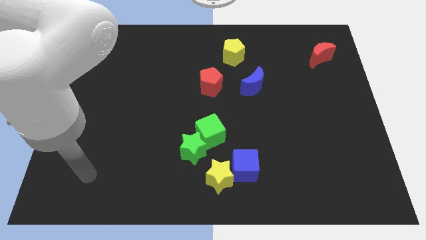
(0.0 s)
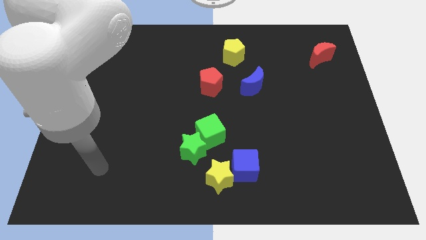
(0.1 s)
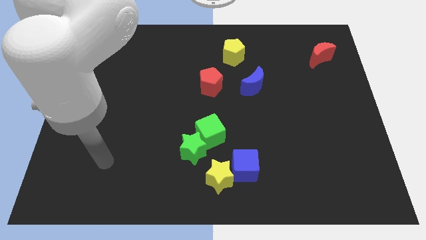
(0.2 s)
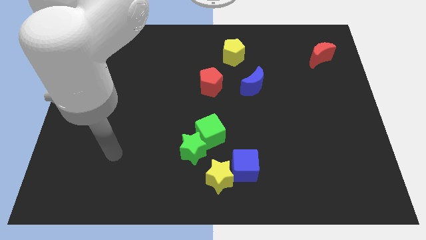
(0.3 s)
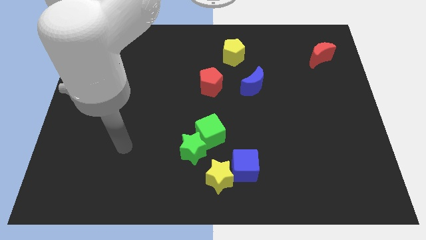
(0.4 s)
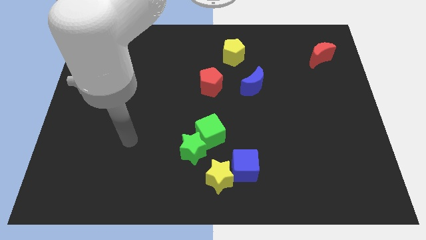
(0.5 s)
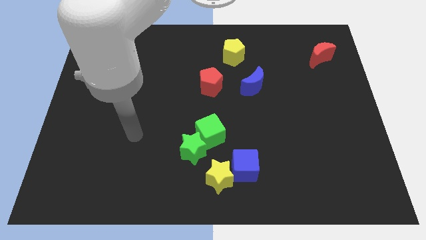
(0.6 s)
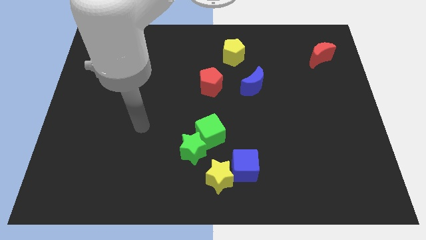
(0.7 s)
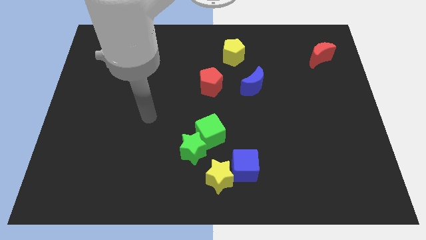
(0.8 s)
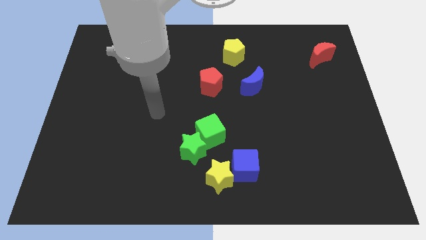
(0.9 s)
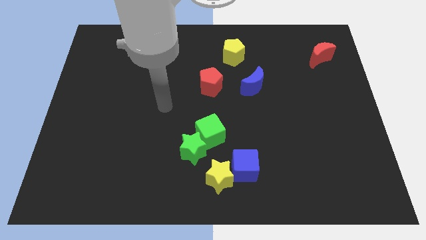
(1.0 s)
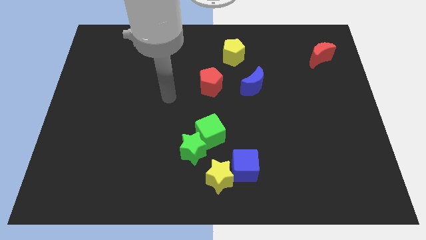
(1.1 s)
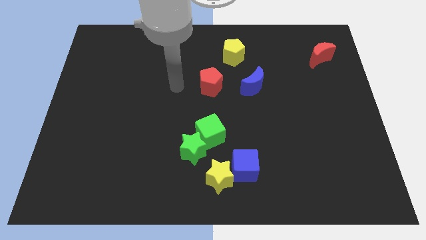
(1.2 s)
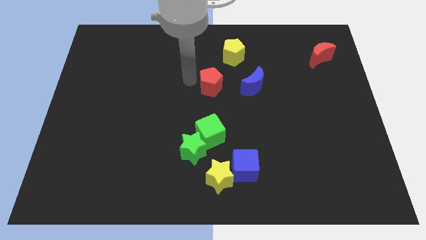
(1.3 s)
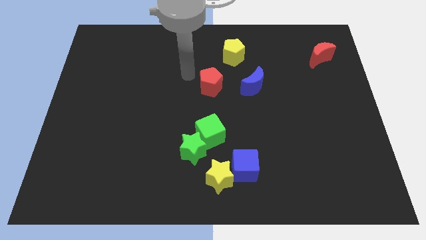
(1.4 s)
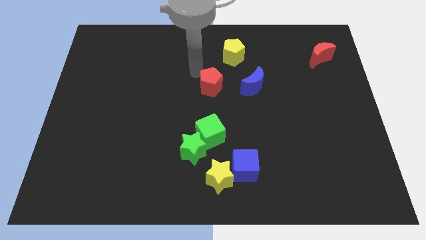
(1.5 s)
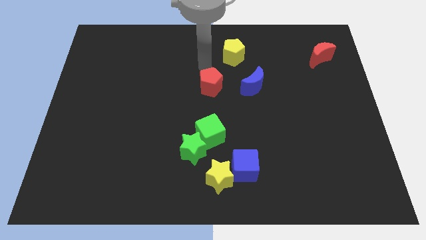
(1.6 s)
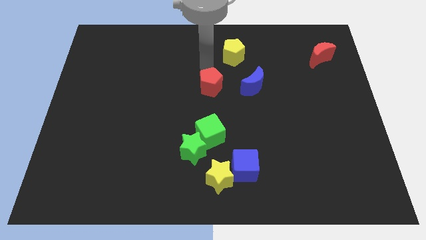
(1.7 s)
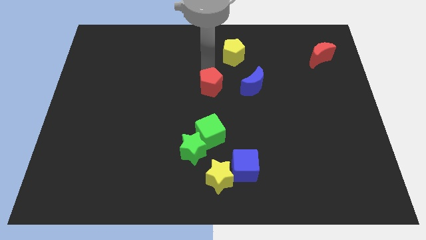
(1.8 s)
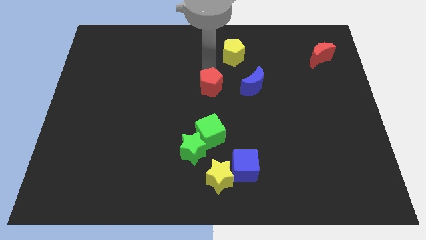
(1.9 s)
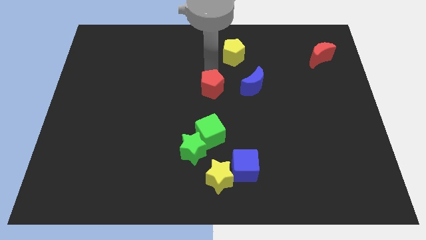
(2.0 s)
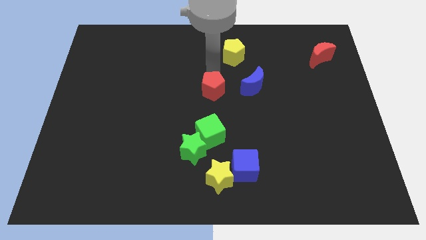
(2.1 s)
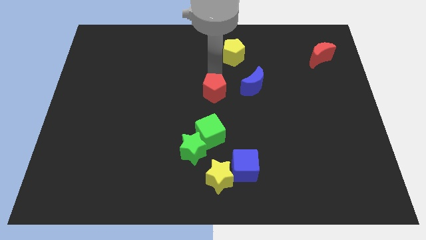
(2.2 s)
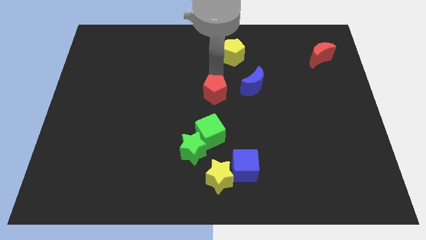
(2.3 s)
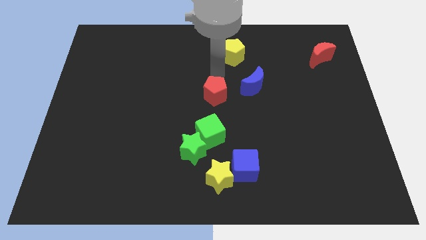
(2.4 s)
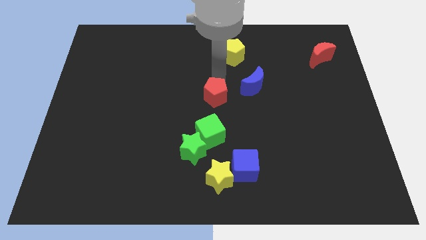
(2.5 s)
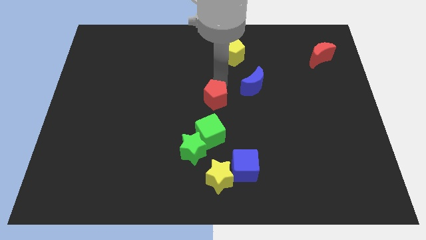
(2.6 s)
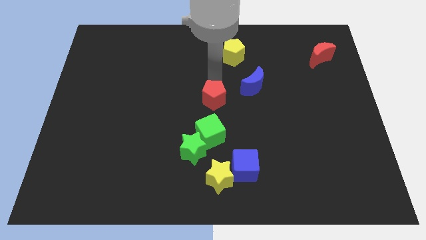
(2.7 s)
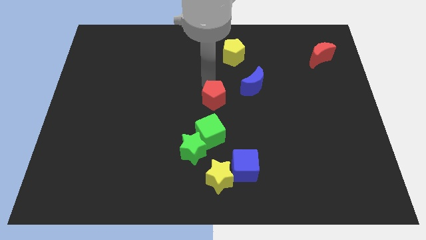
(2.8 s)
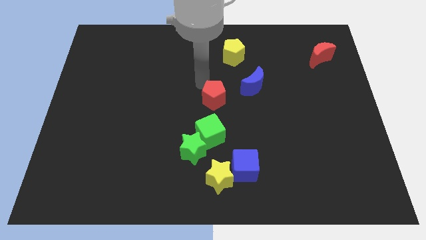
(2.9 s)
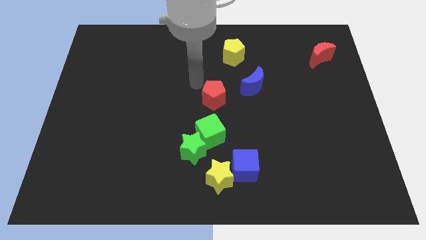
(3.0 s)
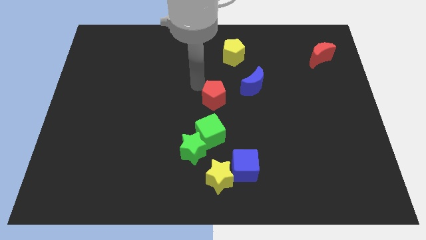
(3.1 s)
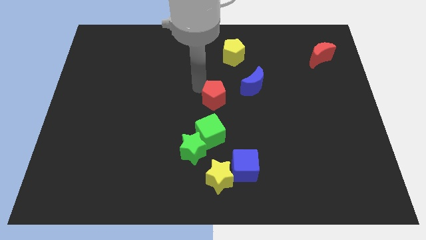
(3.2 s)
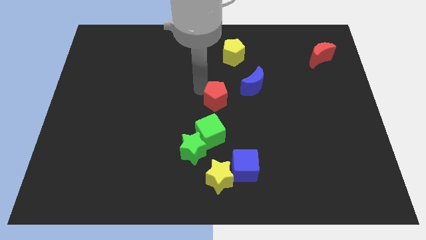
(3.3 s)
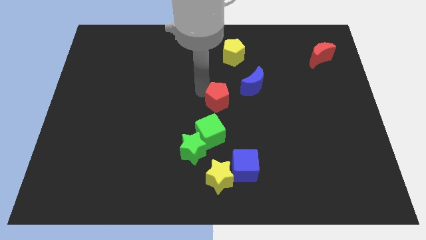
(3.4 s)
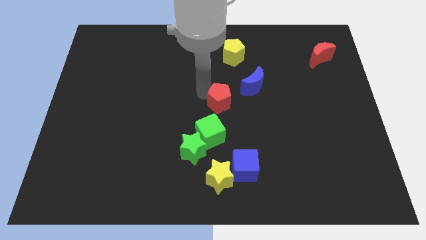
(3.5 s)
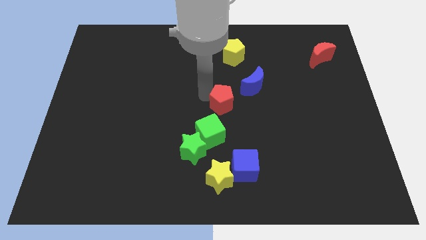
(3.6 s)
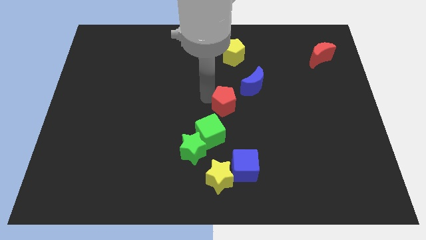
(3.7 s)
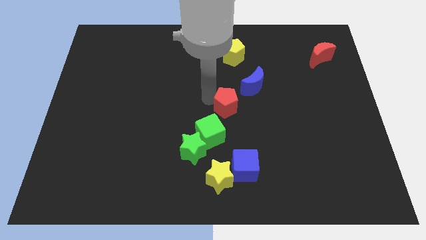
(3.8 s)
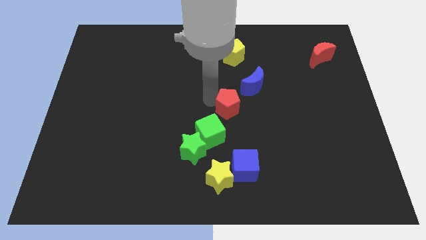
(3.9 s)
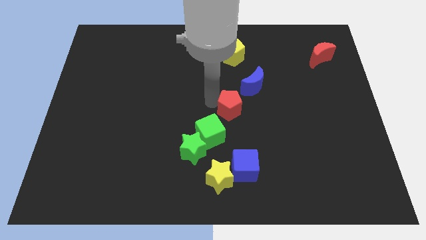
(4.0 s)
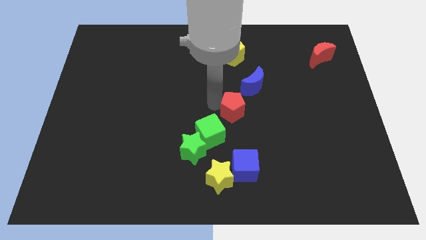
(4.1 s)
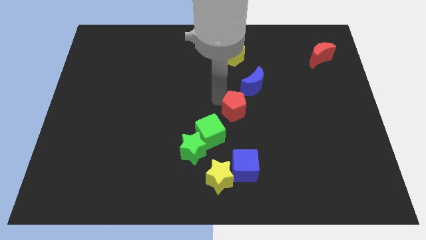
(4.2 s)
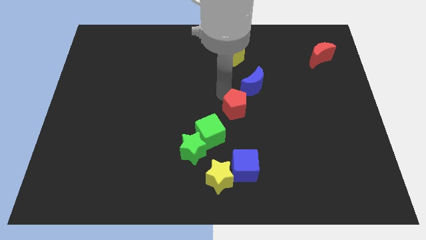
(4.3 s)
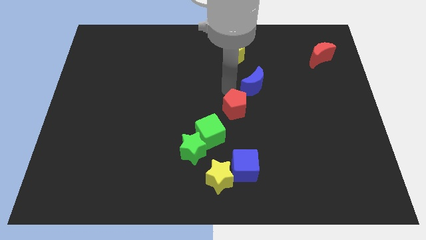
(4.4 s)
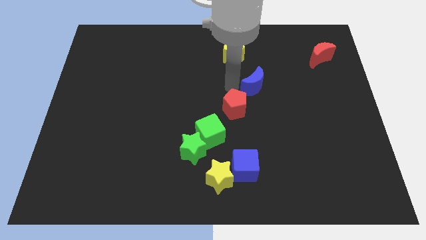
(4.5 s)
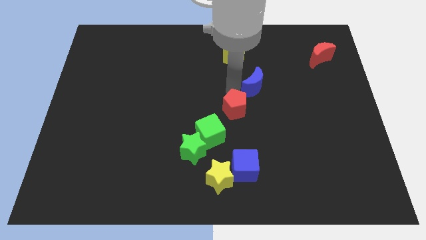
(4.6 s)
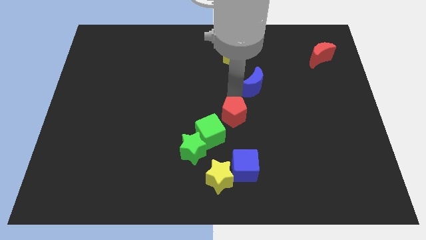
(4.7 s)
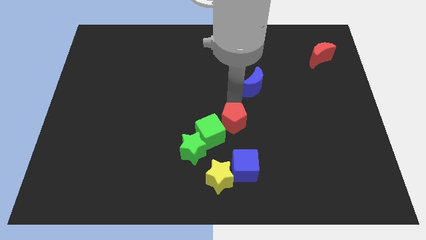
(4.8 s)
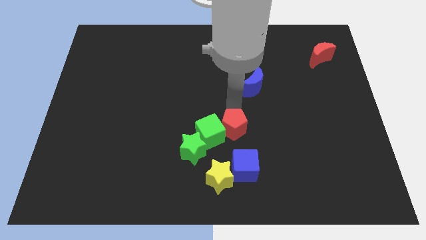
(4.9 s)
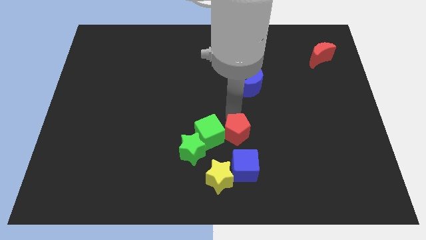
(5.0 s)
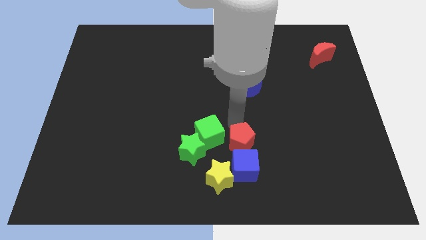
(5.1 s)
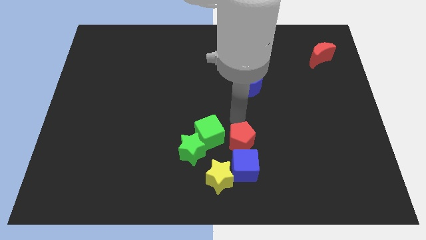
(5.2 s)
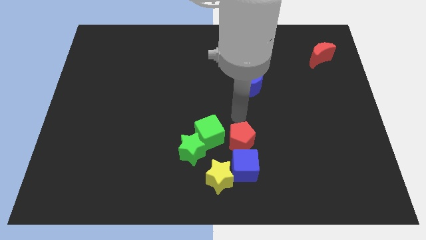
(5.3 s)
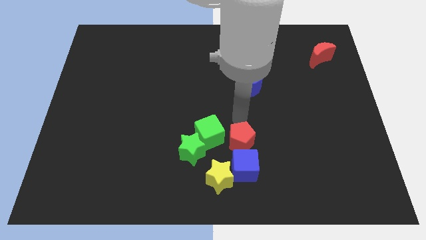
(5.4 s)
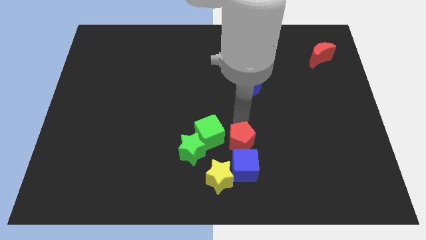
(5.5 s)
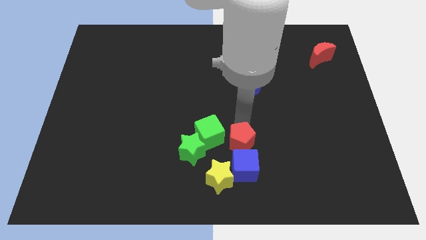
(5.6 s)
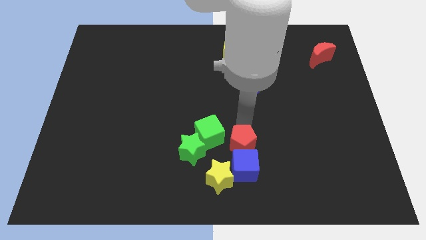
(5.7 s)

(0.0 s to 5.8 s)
push the red pentagon towards the blue cube

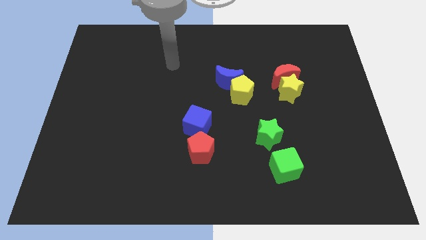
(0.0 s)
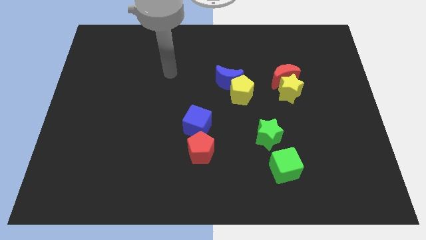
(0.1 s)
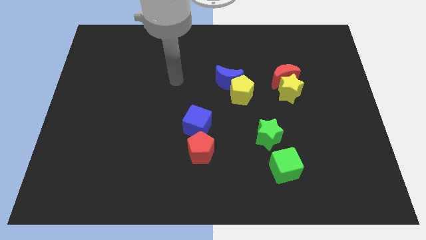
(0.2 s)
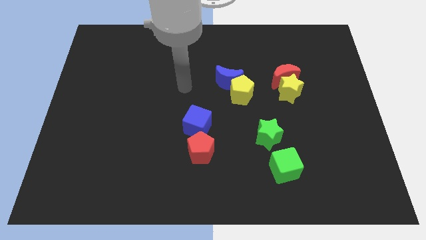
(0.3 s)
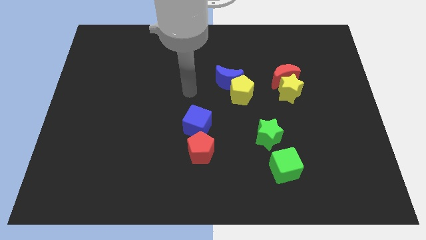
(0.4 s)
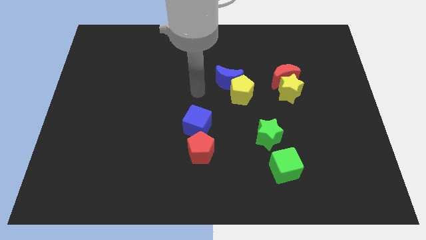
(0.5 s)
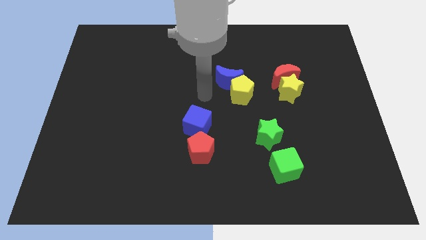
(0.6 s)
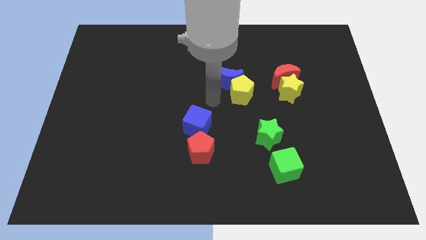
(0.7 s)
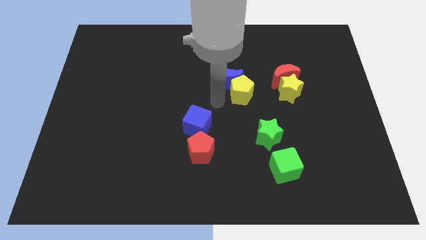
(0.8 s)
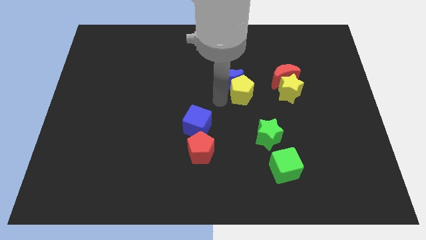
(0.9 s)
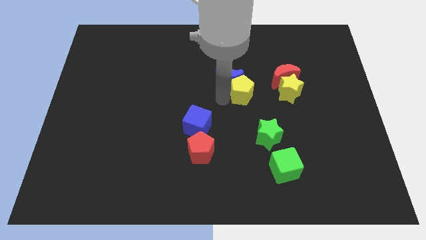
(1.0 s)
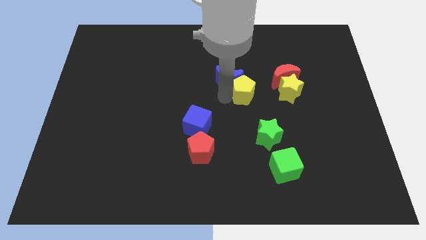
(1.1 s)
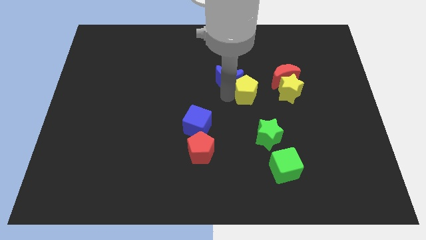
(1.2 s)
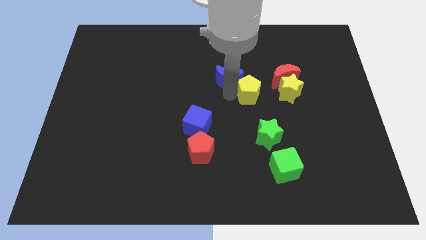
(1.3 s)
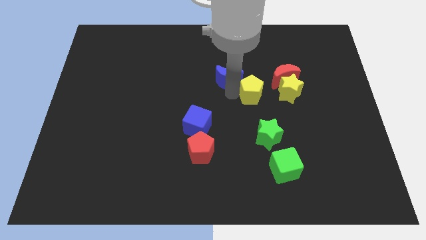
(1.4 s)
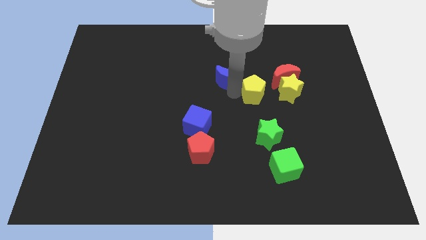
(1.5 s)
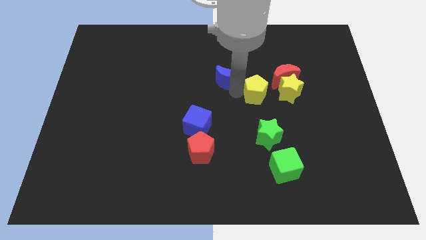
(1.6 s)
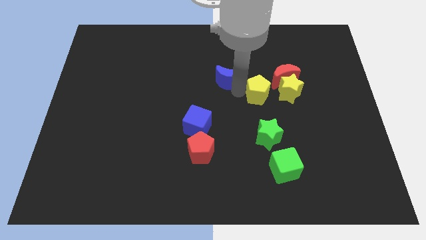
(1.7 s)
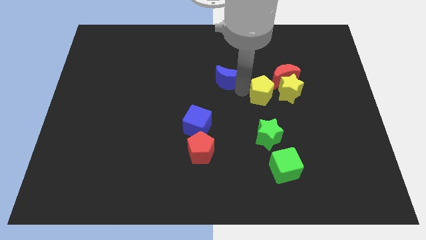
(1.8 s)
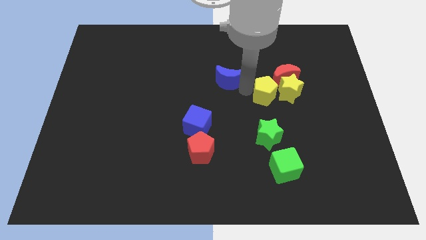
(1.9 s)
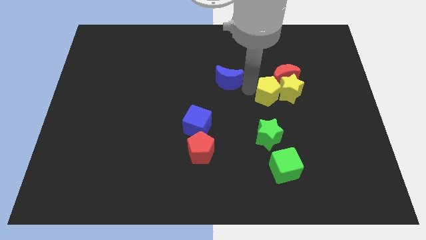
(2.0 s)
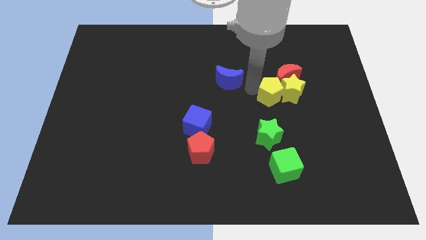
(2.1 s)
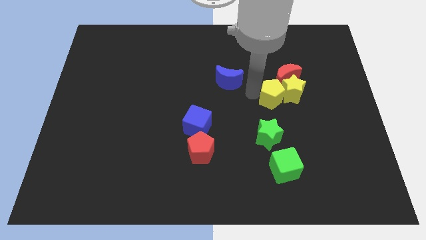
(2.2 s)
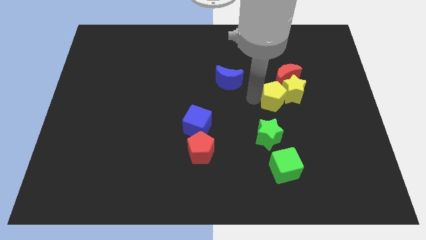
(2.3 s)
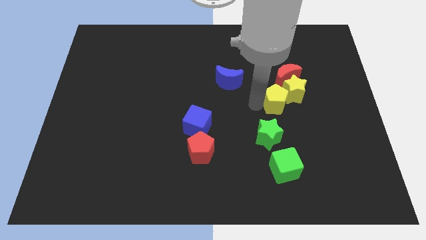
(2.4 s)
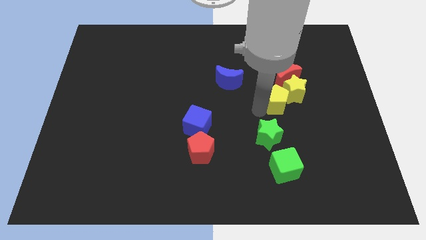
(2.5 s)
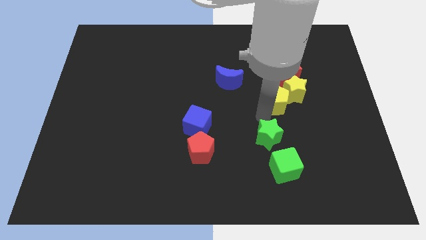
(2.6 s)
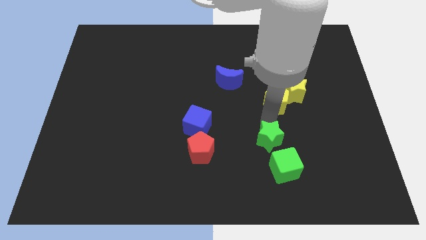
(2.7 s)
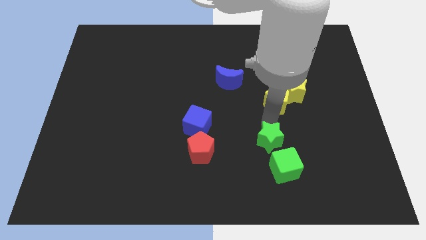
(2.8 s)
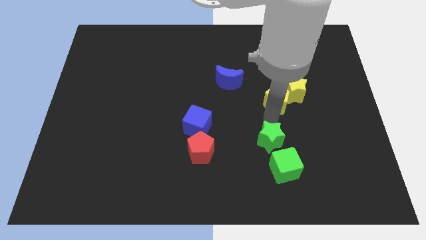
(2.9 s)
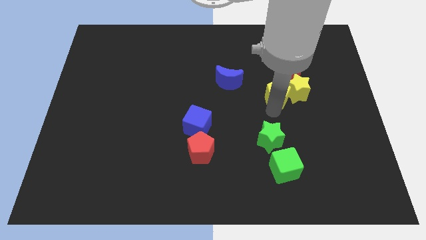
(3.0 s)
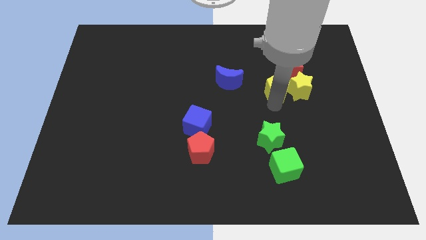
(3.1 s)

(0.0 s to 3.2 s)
push the yellow pentagon to the red moon
